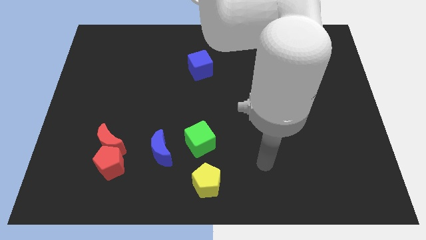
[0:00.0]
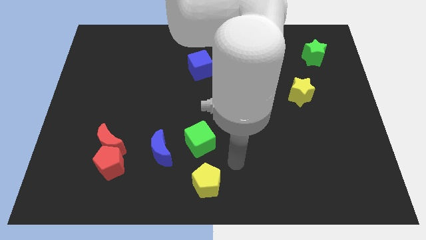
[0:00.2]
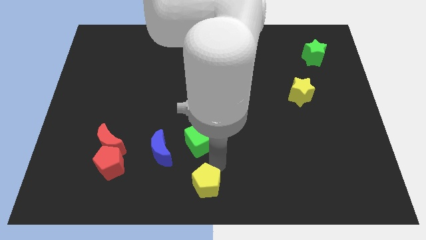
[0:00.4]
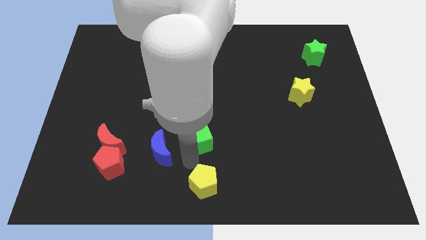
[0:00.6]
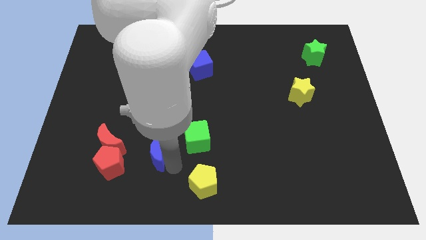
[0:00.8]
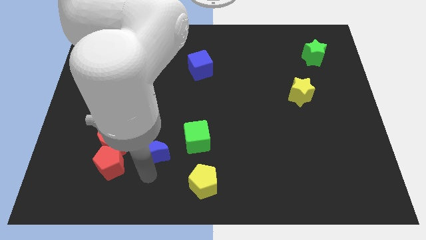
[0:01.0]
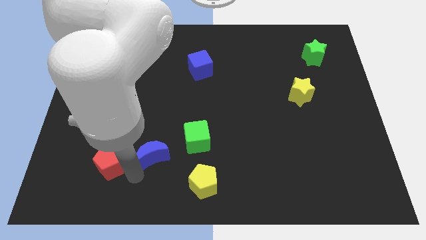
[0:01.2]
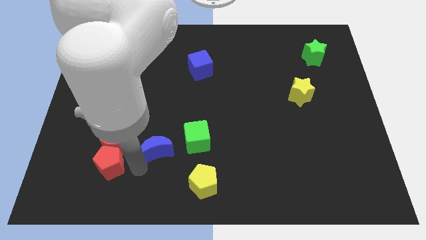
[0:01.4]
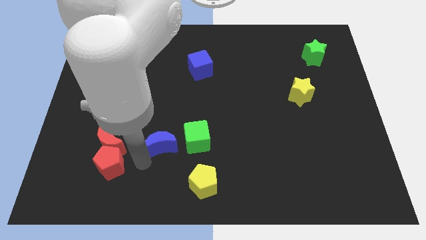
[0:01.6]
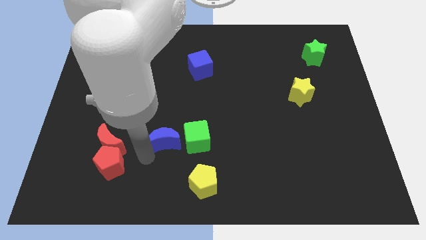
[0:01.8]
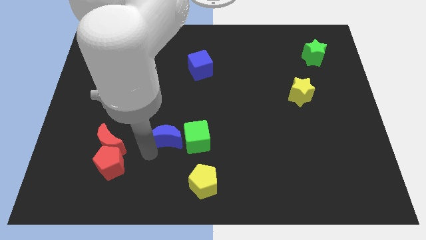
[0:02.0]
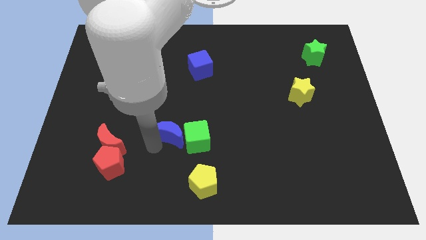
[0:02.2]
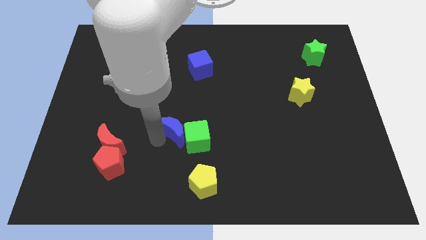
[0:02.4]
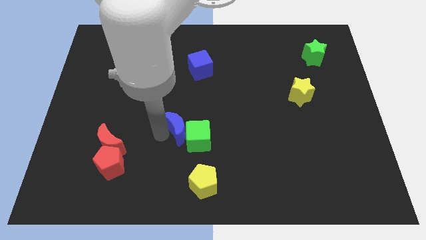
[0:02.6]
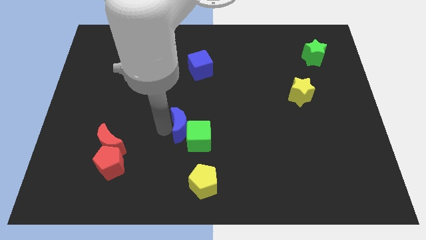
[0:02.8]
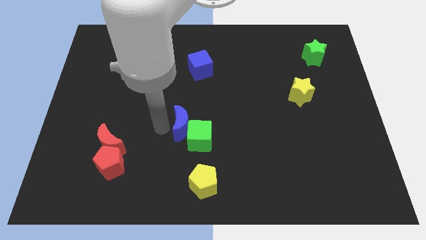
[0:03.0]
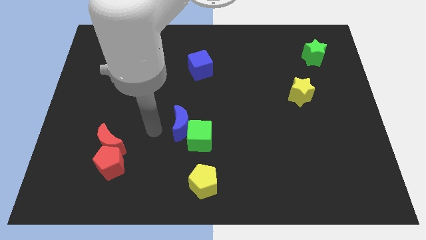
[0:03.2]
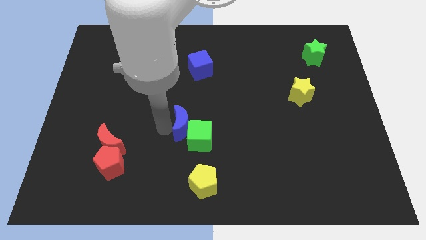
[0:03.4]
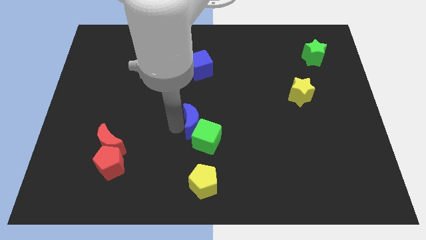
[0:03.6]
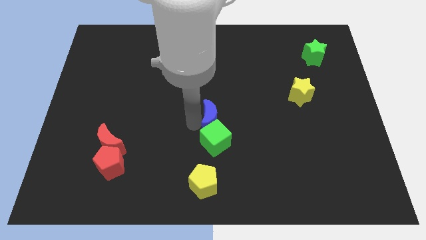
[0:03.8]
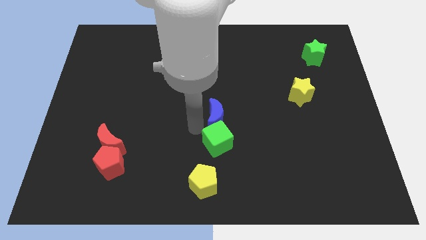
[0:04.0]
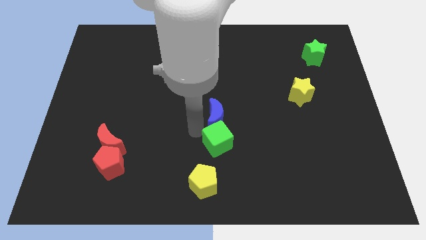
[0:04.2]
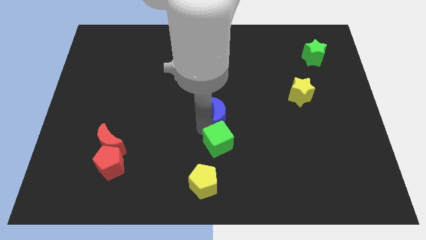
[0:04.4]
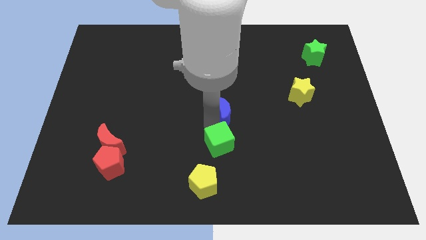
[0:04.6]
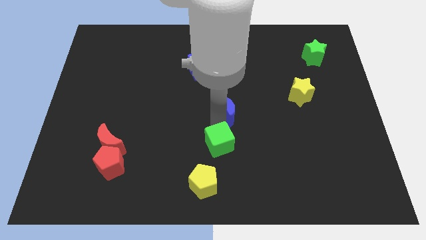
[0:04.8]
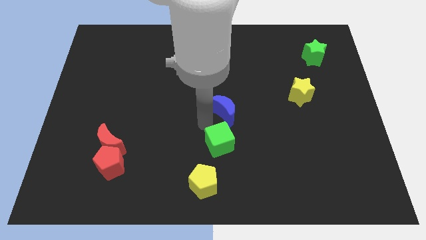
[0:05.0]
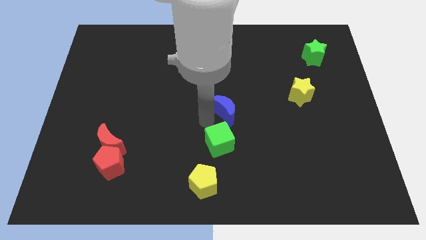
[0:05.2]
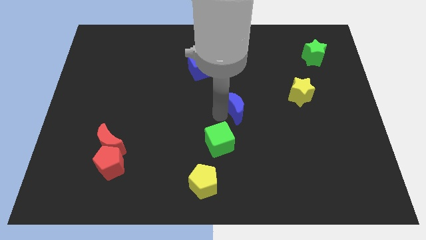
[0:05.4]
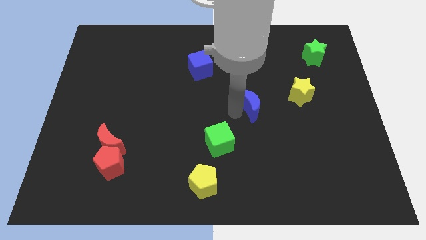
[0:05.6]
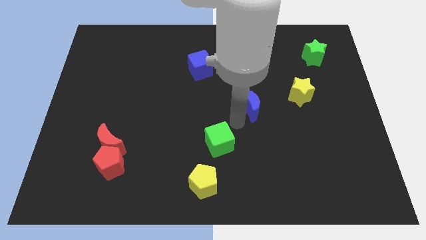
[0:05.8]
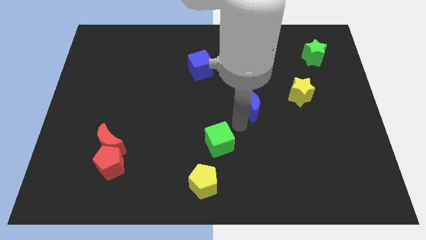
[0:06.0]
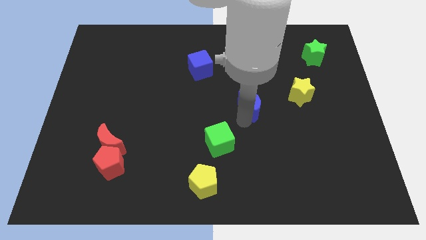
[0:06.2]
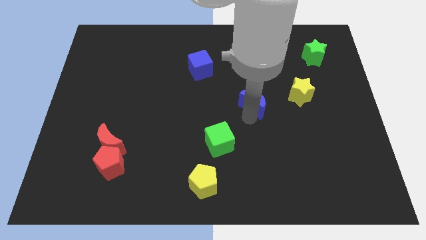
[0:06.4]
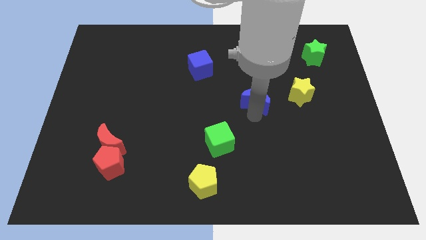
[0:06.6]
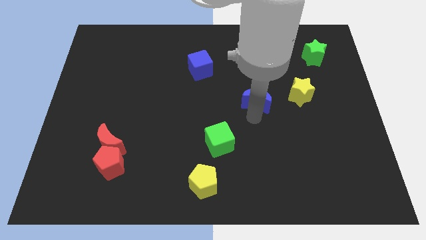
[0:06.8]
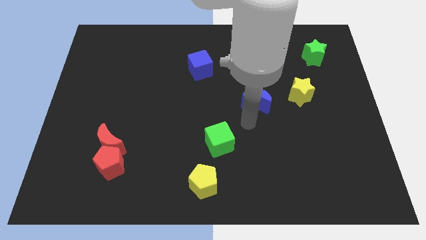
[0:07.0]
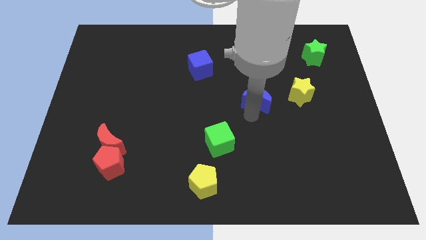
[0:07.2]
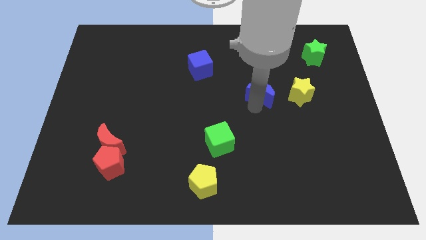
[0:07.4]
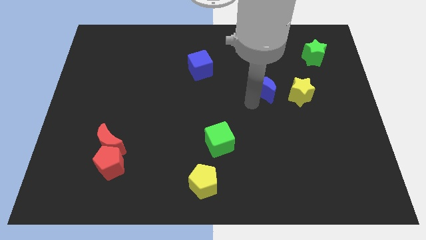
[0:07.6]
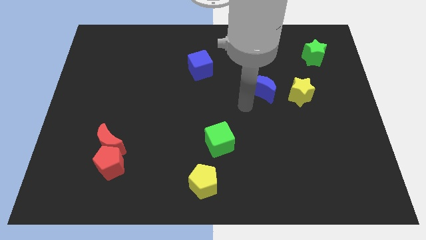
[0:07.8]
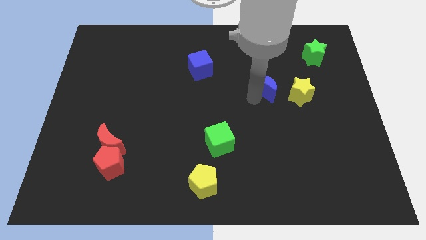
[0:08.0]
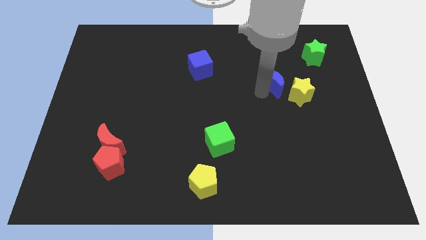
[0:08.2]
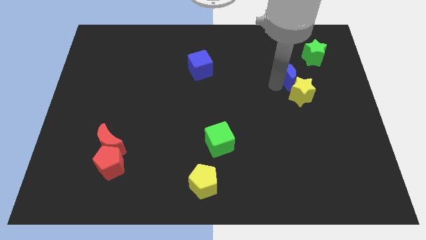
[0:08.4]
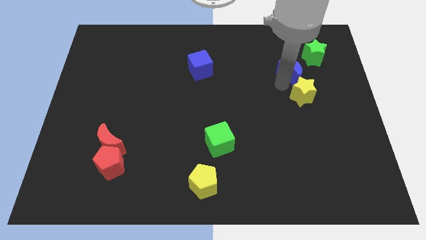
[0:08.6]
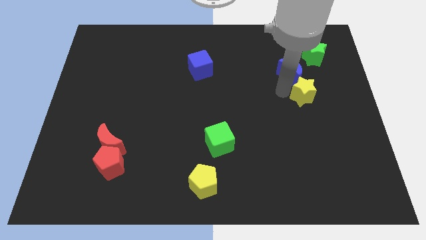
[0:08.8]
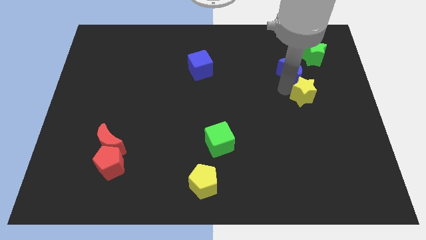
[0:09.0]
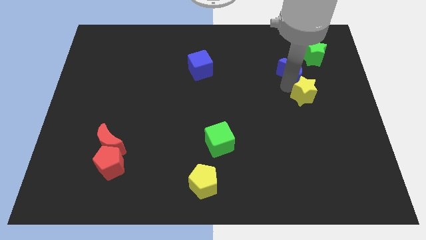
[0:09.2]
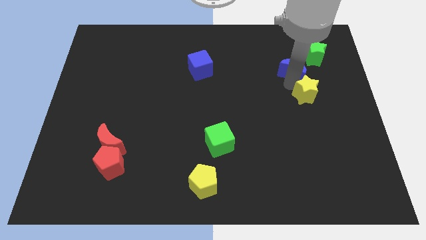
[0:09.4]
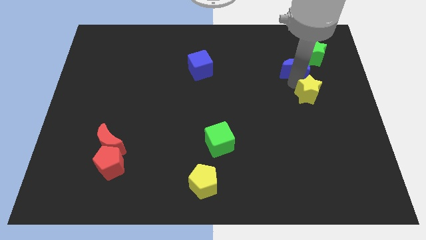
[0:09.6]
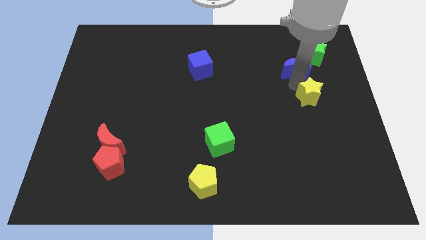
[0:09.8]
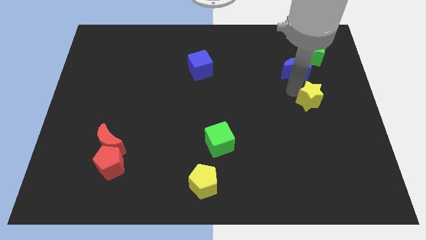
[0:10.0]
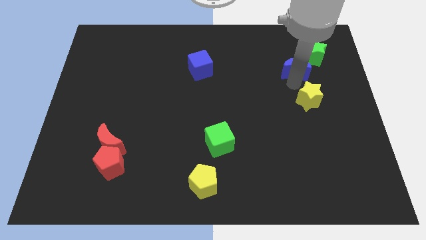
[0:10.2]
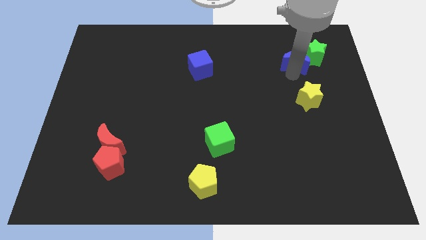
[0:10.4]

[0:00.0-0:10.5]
put the blue moon to the green star

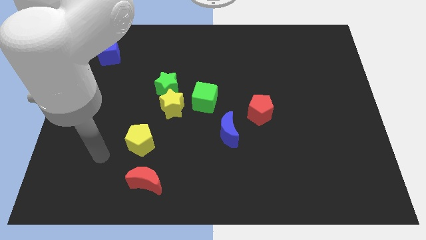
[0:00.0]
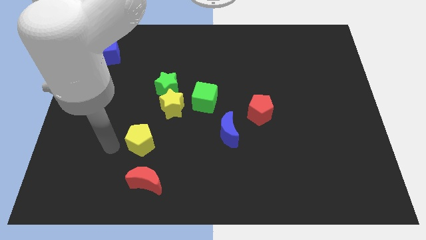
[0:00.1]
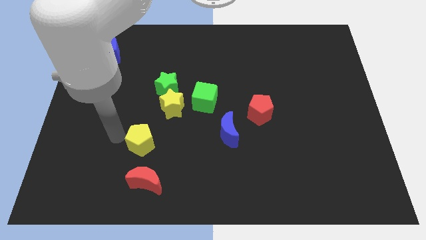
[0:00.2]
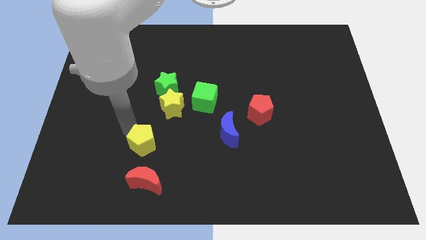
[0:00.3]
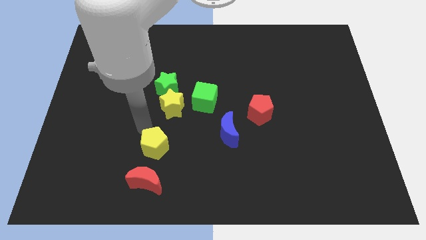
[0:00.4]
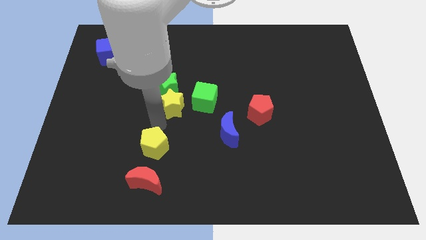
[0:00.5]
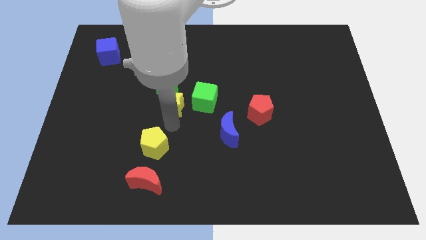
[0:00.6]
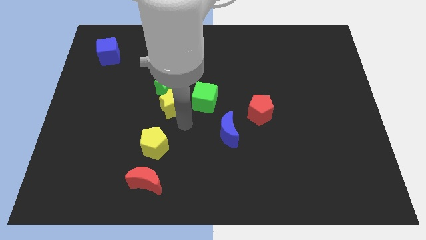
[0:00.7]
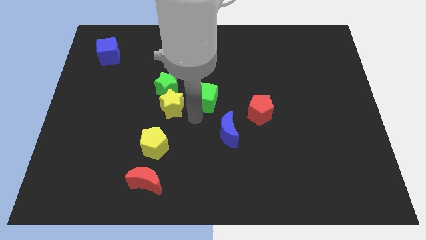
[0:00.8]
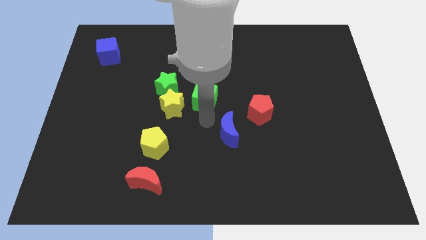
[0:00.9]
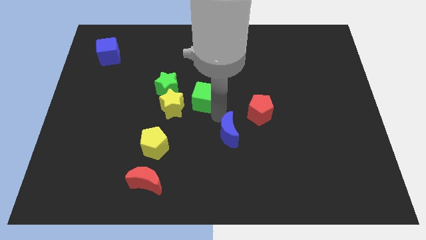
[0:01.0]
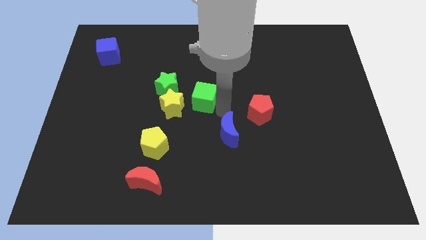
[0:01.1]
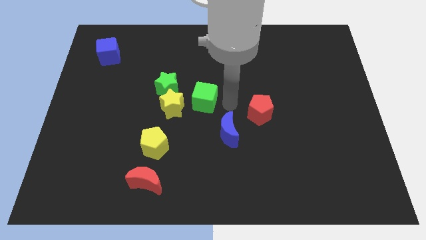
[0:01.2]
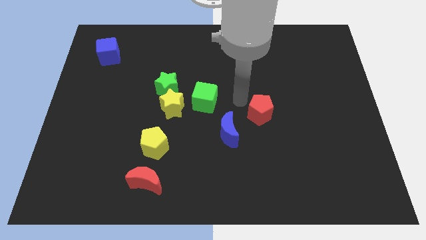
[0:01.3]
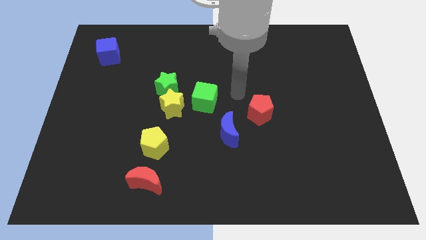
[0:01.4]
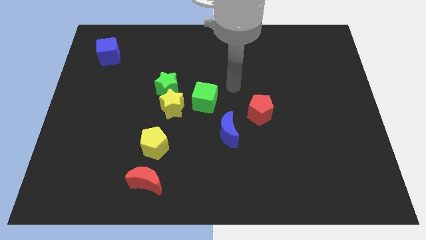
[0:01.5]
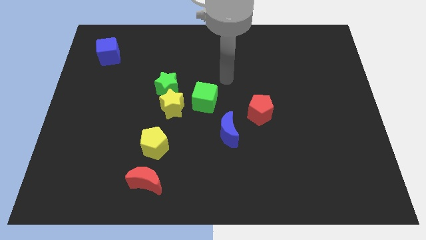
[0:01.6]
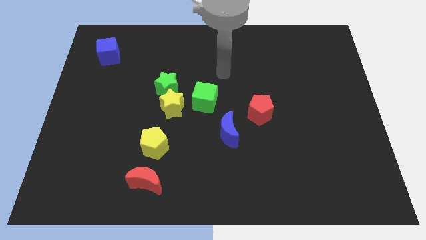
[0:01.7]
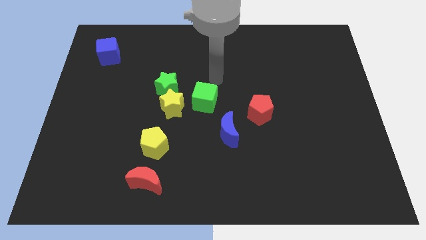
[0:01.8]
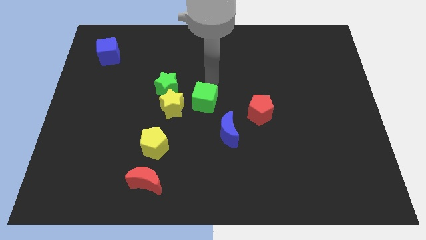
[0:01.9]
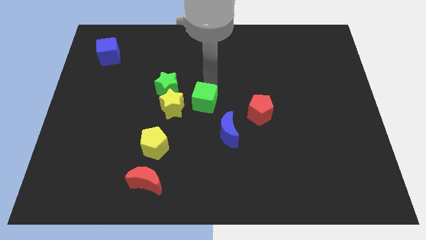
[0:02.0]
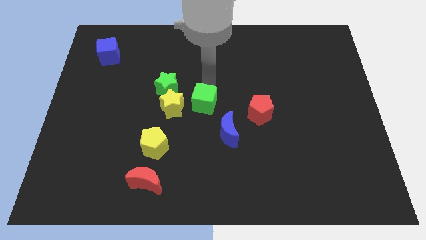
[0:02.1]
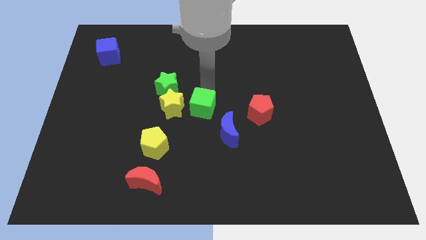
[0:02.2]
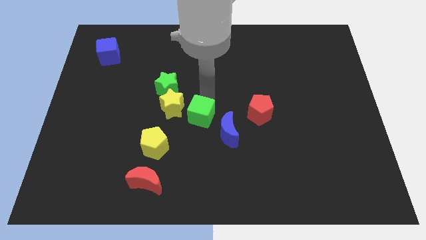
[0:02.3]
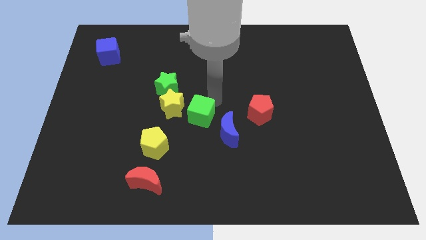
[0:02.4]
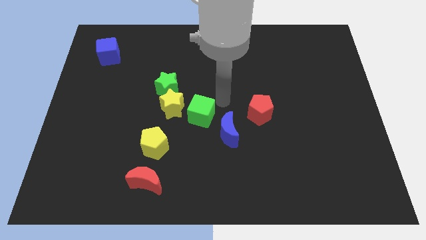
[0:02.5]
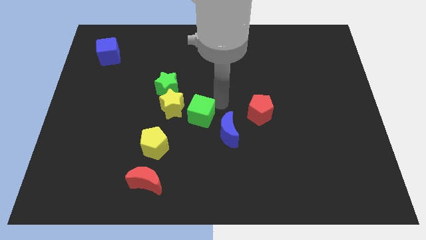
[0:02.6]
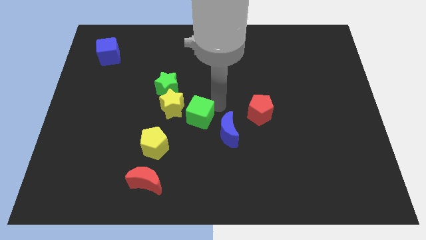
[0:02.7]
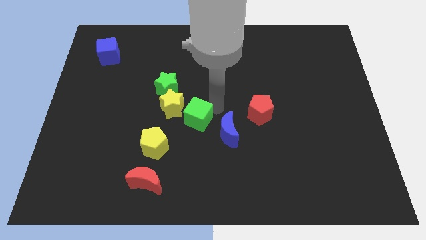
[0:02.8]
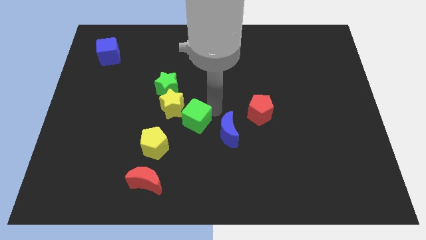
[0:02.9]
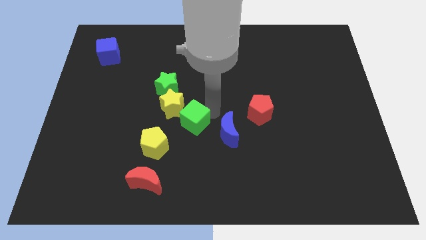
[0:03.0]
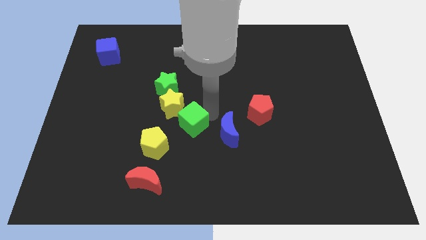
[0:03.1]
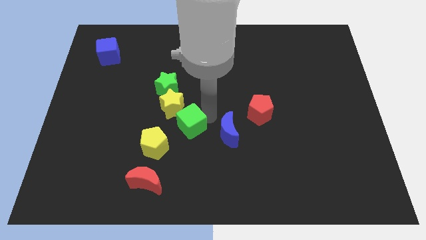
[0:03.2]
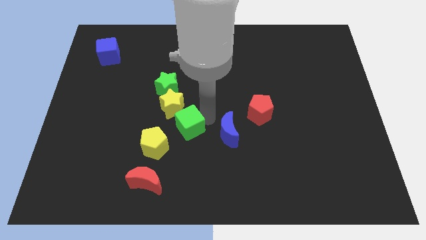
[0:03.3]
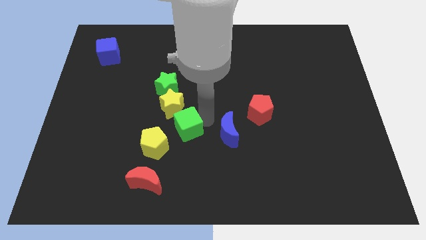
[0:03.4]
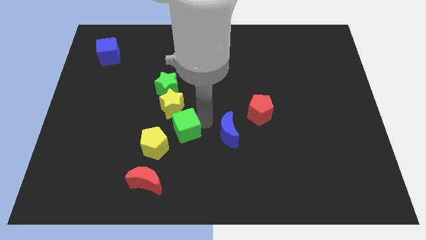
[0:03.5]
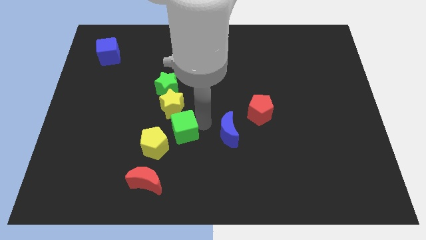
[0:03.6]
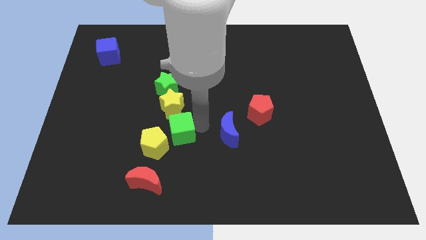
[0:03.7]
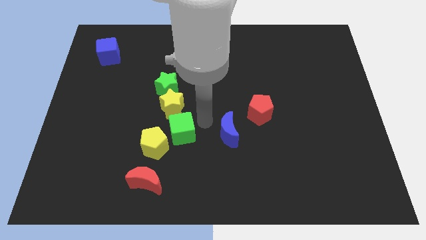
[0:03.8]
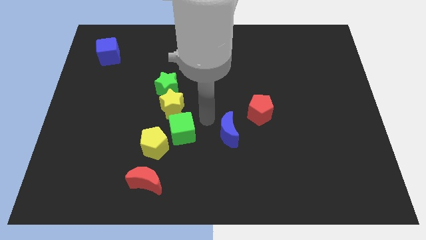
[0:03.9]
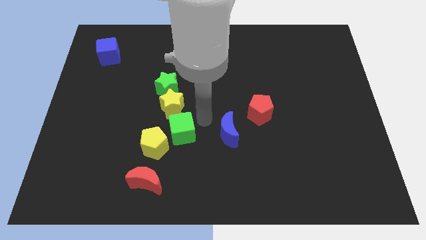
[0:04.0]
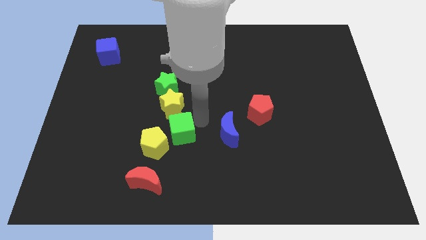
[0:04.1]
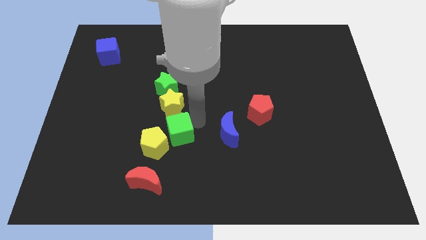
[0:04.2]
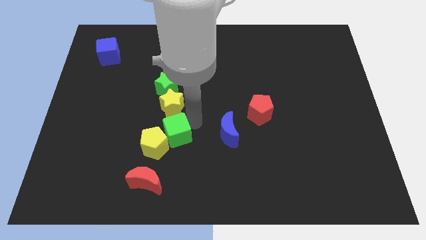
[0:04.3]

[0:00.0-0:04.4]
put the green cube towards the yellow pentagon
